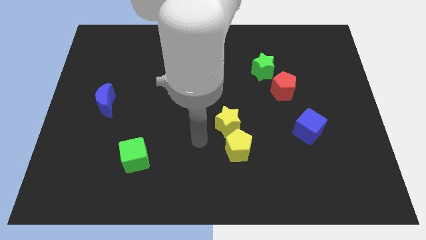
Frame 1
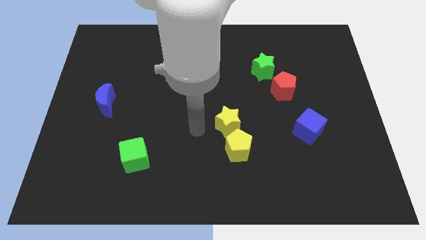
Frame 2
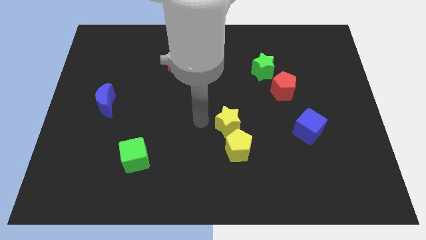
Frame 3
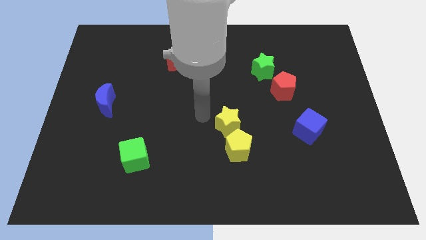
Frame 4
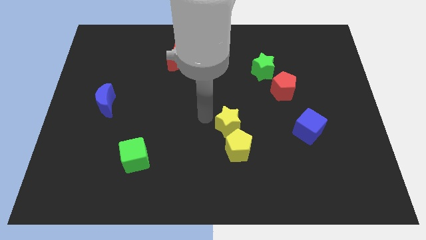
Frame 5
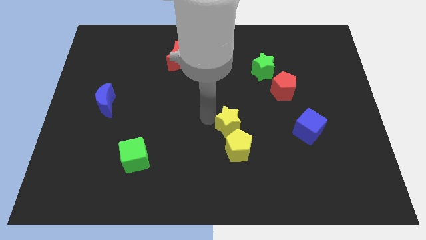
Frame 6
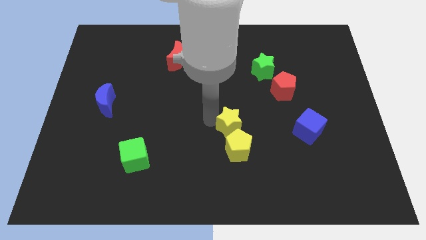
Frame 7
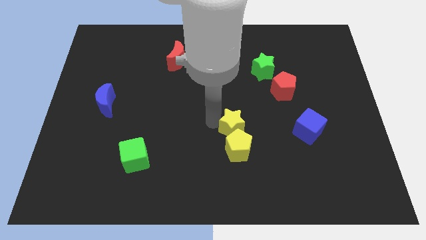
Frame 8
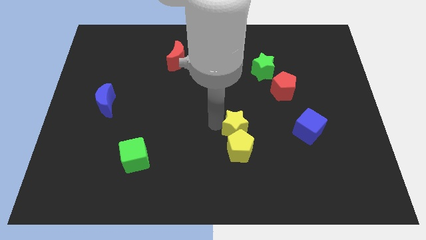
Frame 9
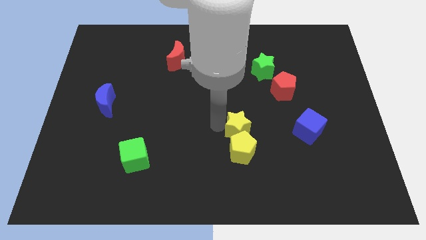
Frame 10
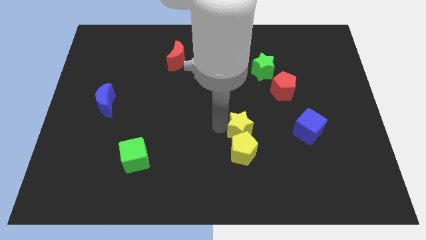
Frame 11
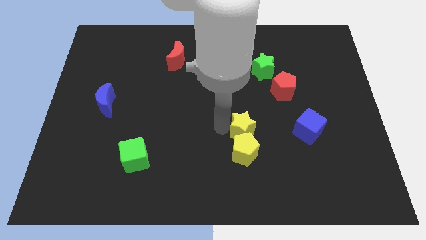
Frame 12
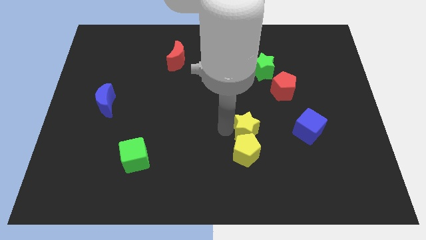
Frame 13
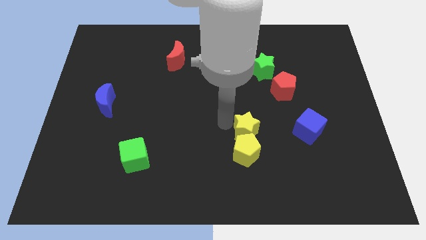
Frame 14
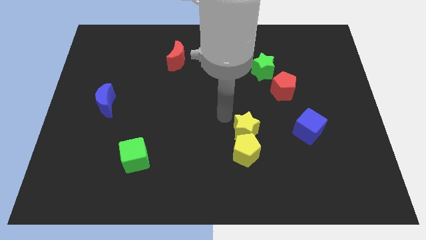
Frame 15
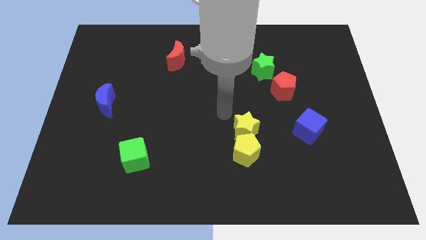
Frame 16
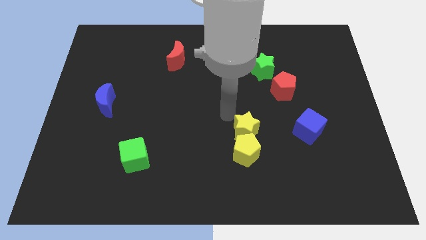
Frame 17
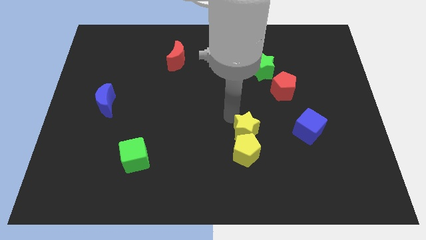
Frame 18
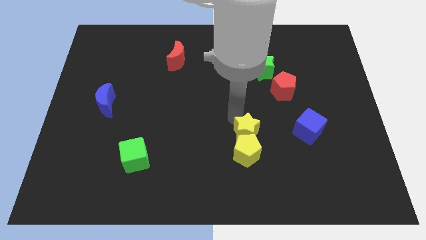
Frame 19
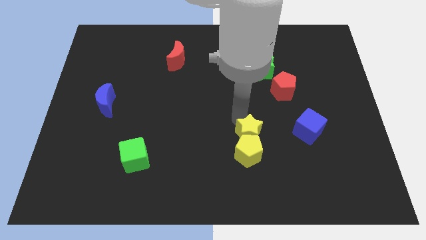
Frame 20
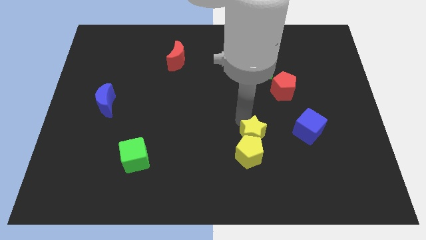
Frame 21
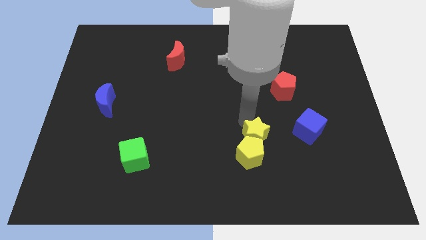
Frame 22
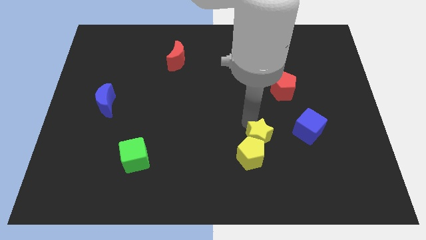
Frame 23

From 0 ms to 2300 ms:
slide the yellow star slightly downwards and right

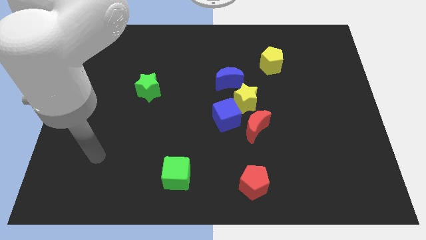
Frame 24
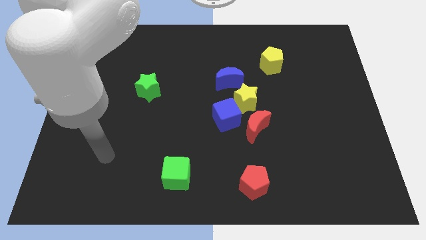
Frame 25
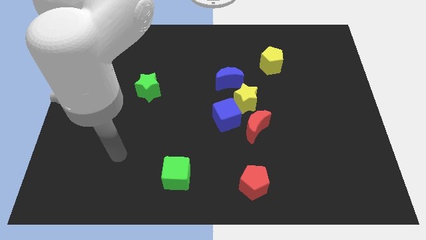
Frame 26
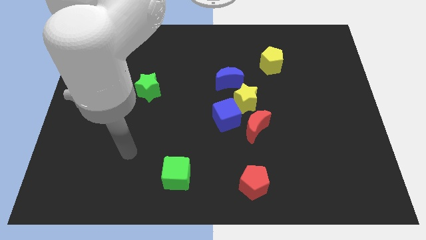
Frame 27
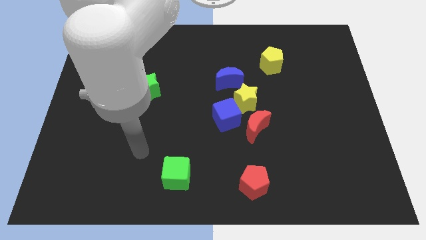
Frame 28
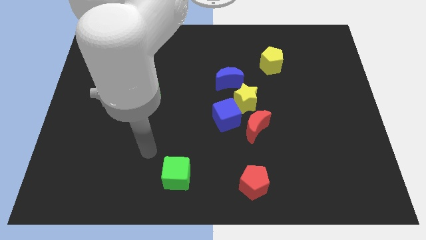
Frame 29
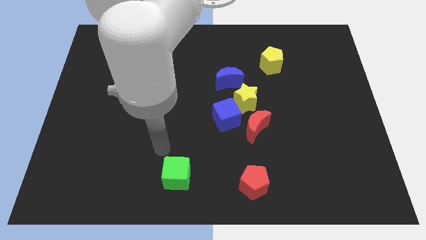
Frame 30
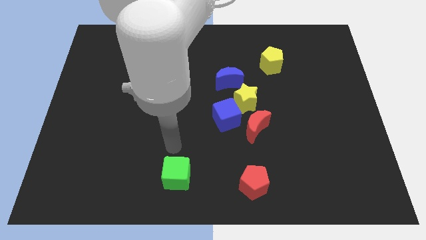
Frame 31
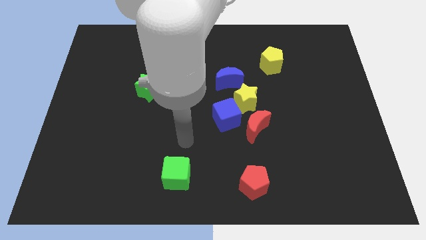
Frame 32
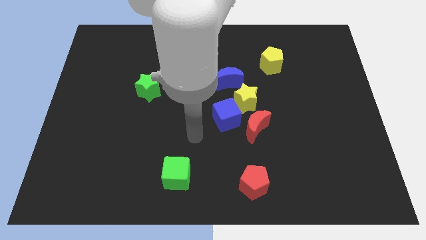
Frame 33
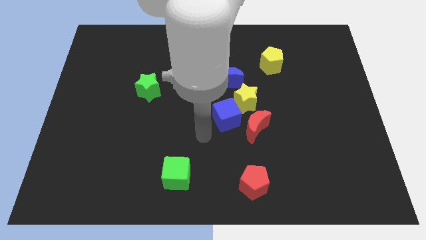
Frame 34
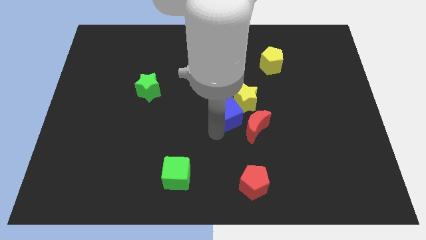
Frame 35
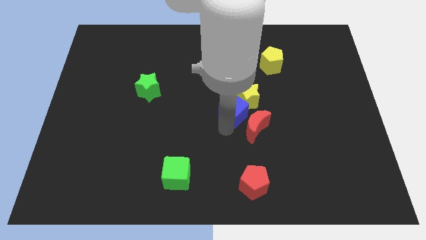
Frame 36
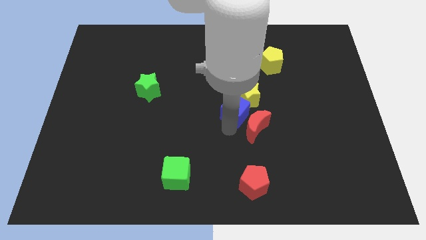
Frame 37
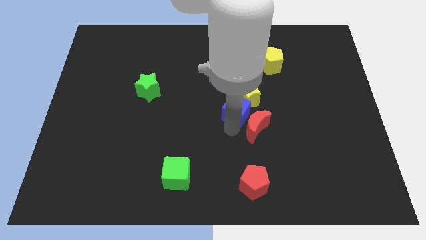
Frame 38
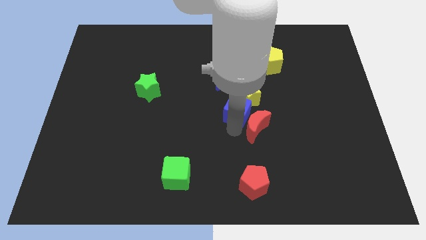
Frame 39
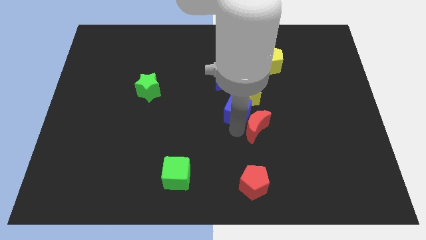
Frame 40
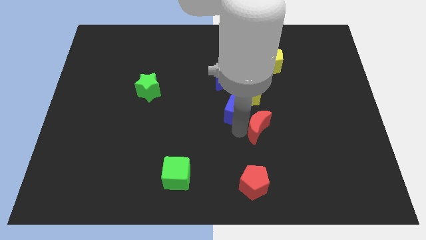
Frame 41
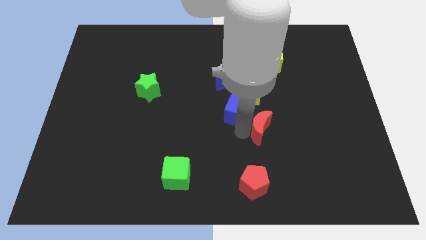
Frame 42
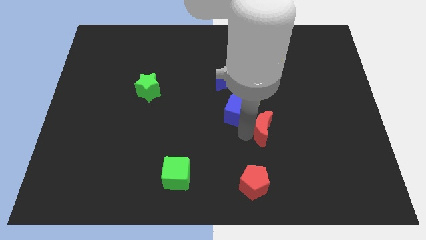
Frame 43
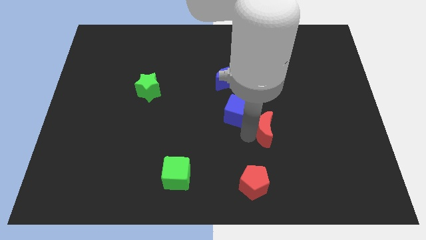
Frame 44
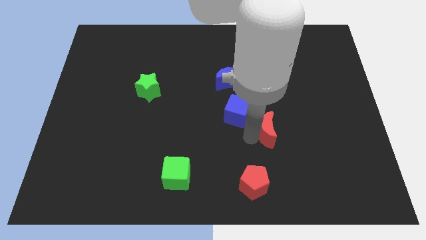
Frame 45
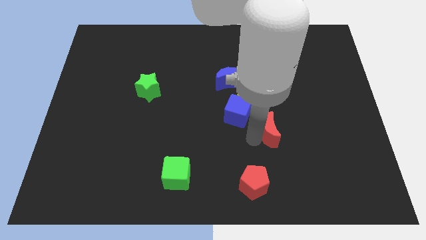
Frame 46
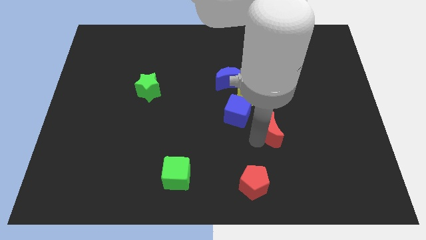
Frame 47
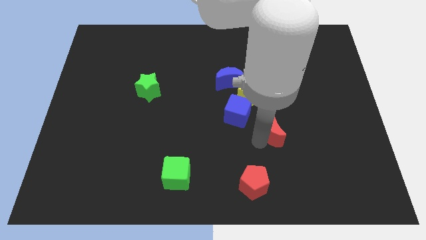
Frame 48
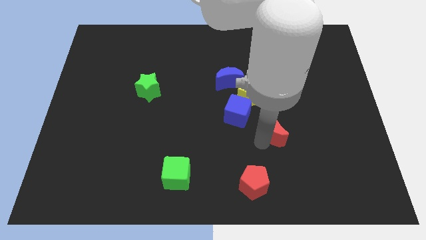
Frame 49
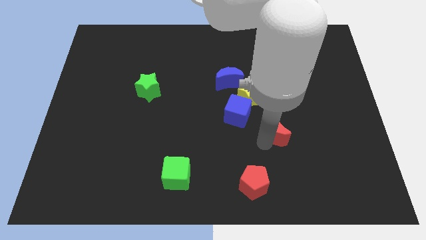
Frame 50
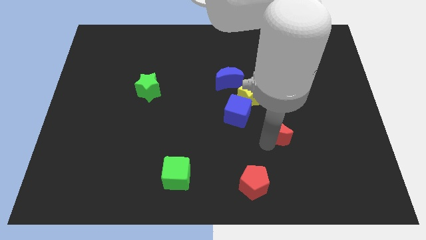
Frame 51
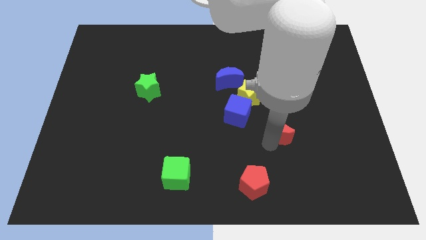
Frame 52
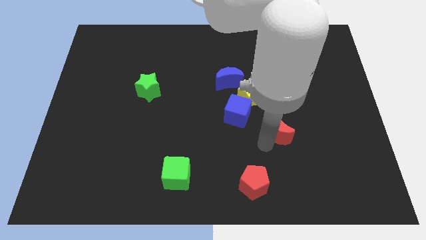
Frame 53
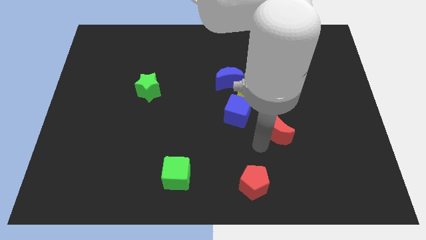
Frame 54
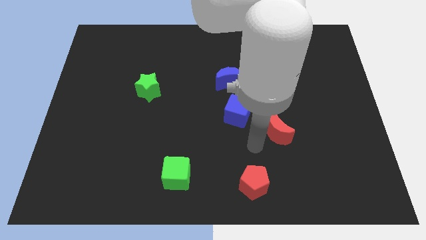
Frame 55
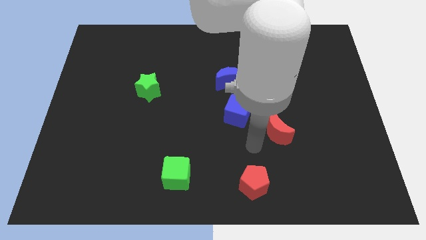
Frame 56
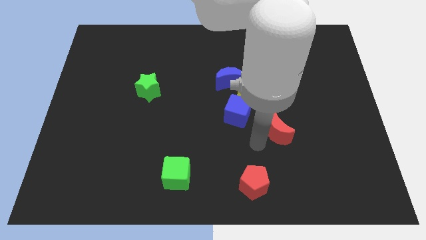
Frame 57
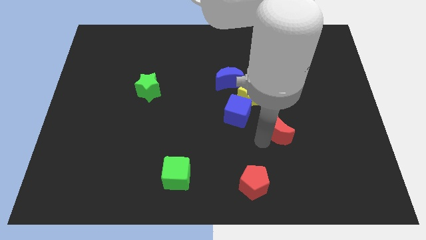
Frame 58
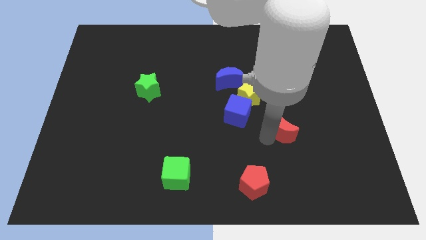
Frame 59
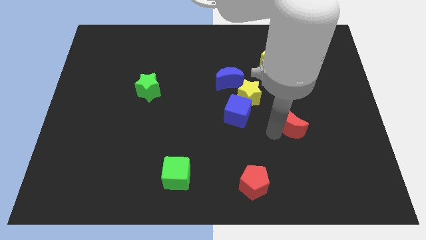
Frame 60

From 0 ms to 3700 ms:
push the red moon a bit to the right

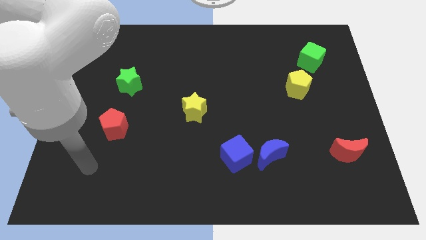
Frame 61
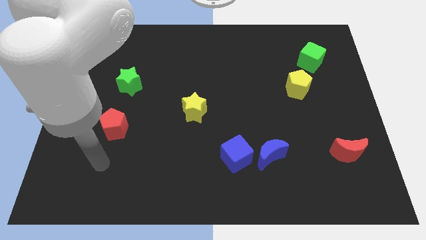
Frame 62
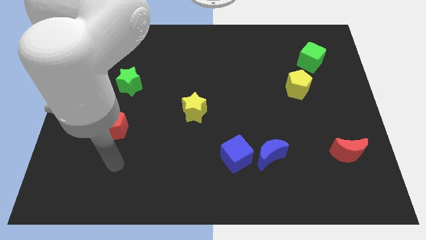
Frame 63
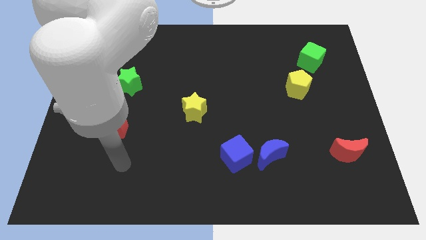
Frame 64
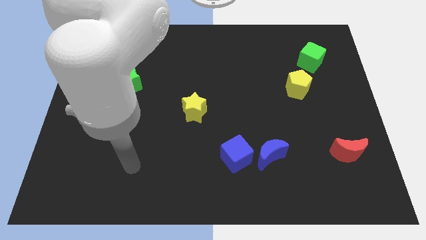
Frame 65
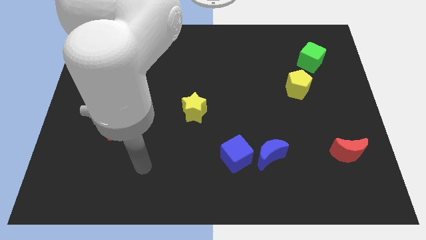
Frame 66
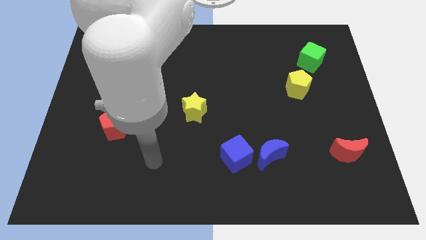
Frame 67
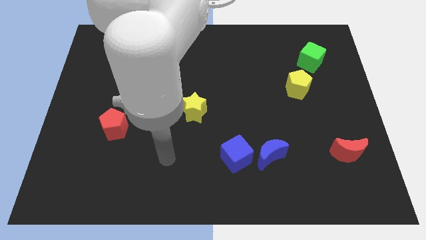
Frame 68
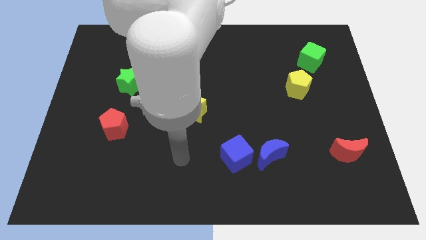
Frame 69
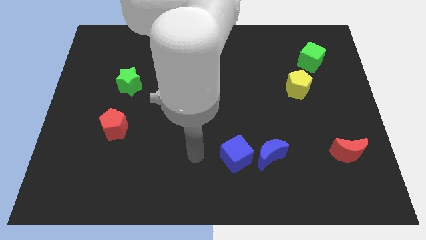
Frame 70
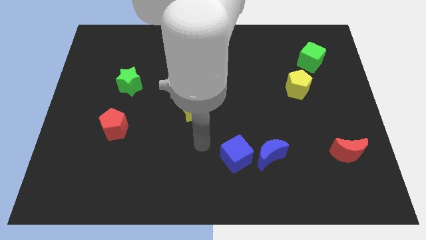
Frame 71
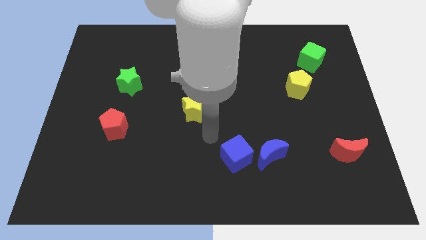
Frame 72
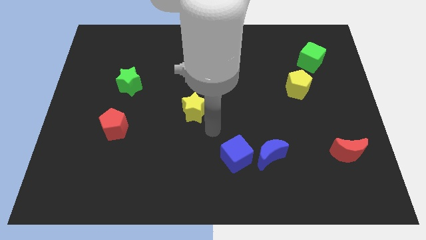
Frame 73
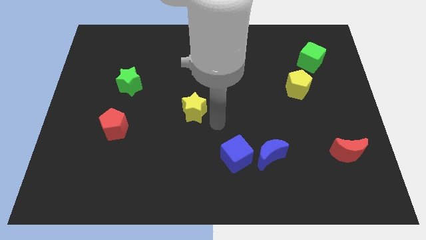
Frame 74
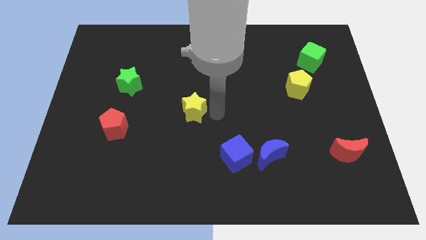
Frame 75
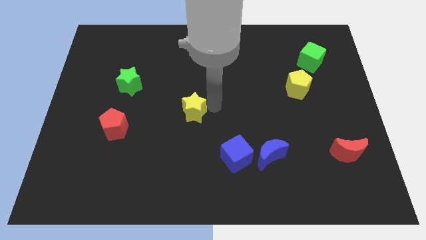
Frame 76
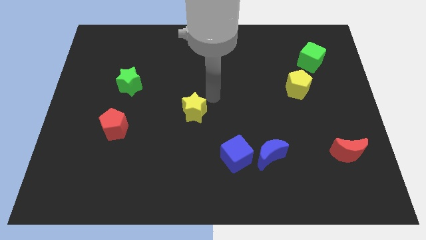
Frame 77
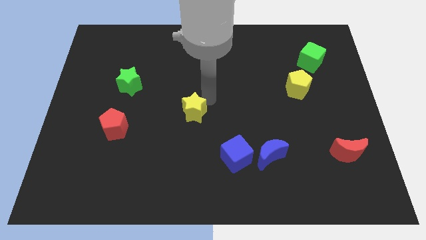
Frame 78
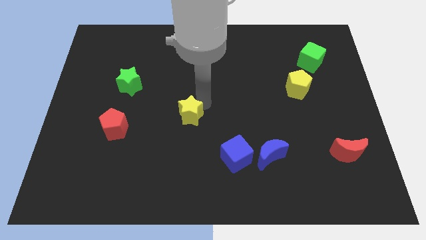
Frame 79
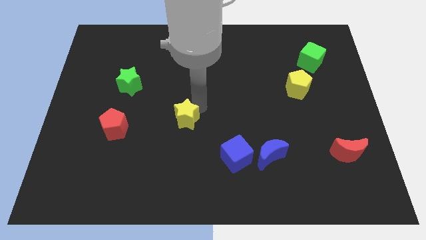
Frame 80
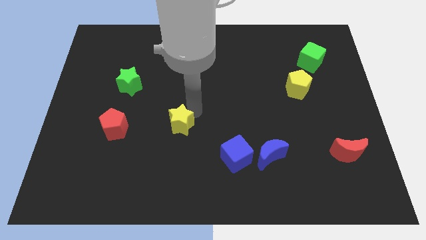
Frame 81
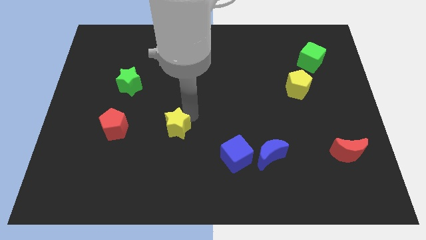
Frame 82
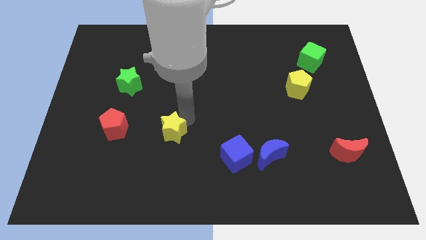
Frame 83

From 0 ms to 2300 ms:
slide the yellow star down and then left a little bit
